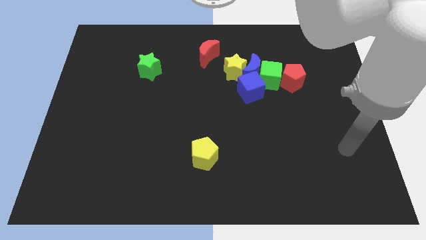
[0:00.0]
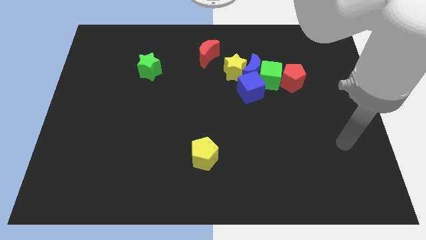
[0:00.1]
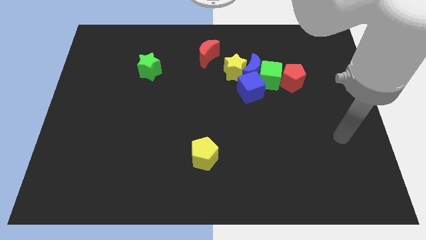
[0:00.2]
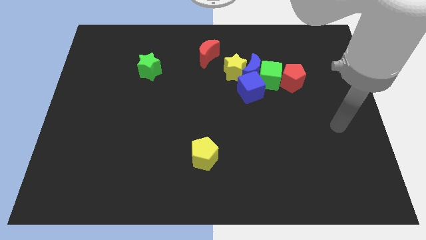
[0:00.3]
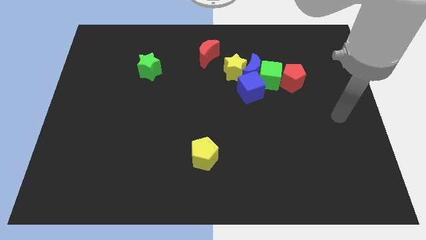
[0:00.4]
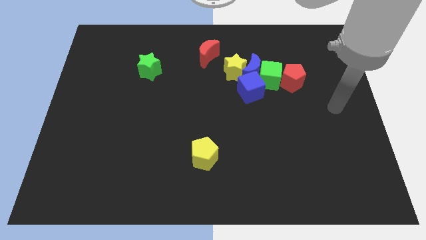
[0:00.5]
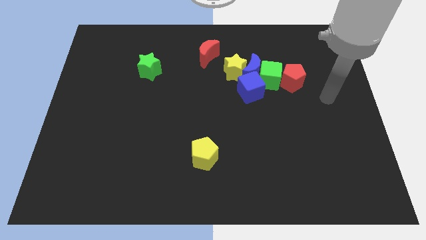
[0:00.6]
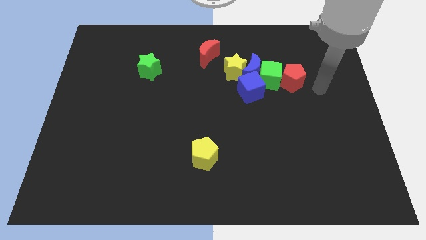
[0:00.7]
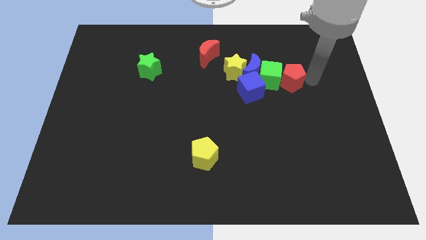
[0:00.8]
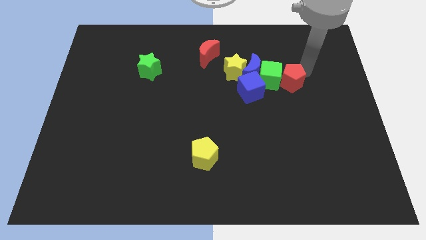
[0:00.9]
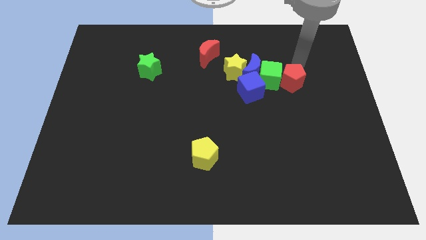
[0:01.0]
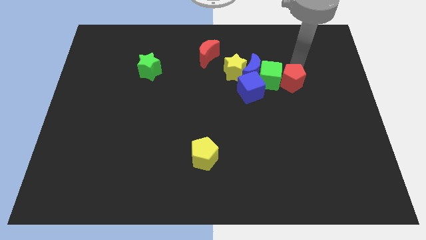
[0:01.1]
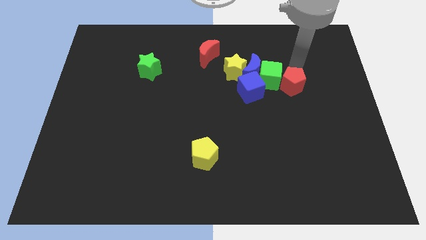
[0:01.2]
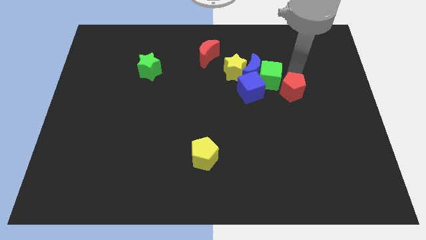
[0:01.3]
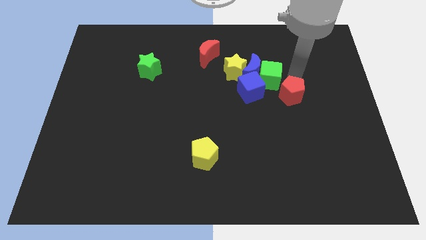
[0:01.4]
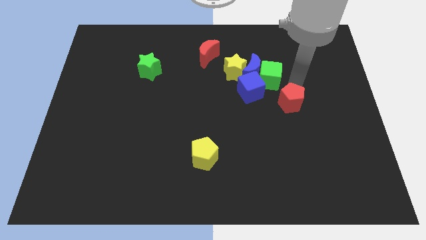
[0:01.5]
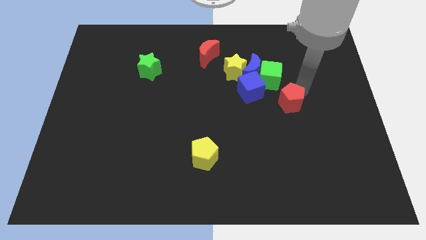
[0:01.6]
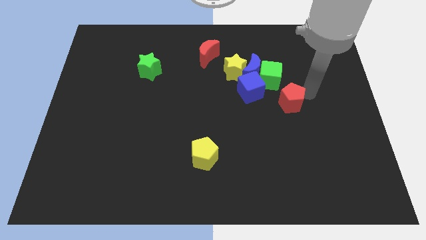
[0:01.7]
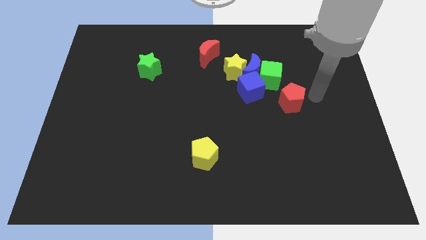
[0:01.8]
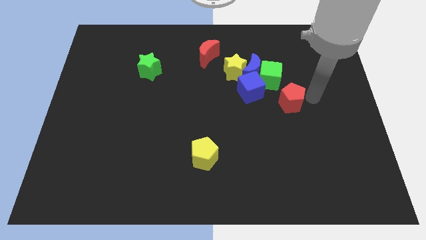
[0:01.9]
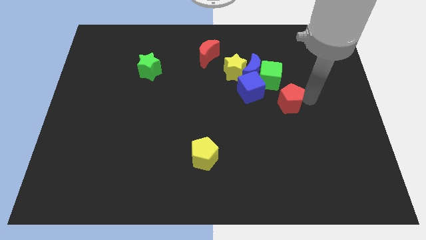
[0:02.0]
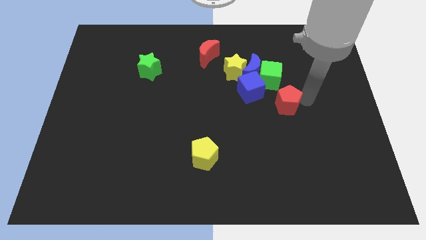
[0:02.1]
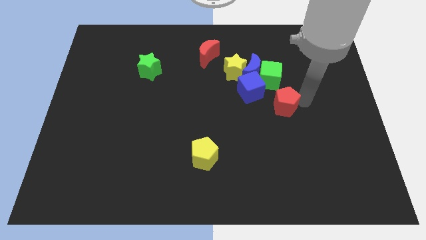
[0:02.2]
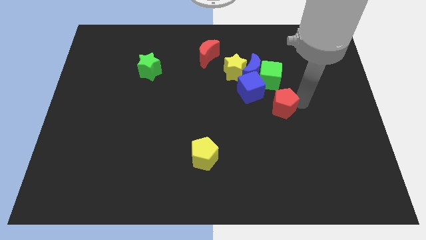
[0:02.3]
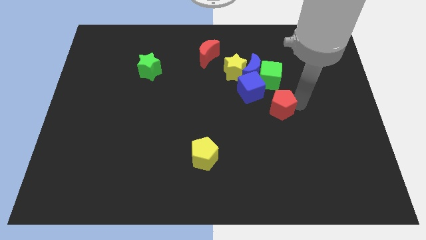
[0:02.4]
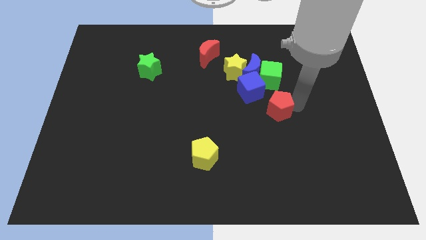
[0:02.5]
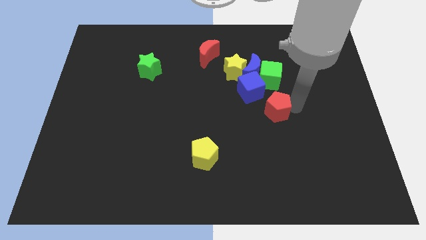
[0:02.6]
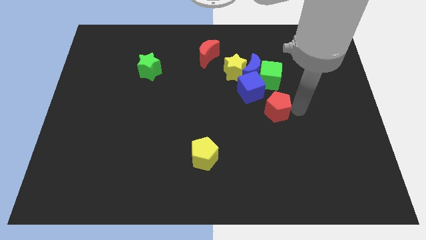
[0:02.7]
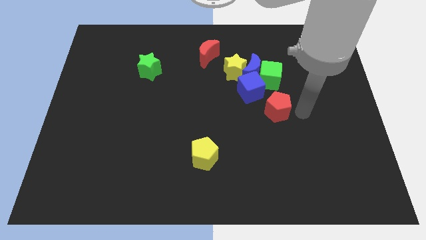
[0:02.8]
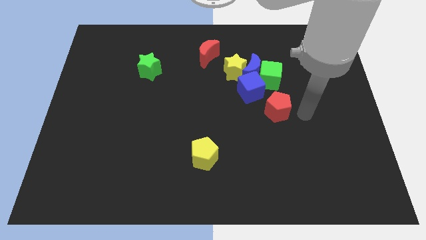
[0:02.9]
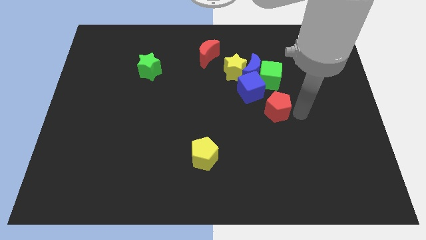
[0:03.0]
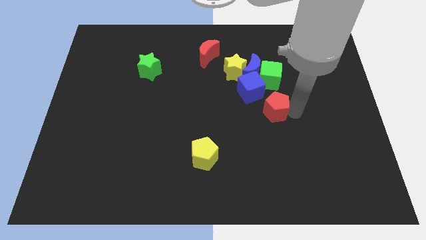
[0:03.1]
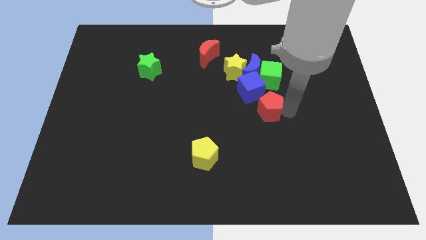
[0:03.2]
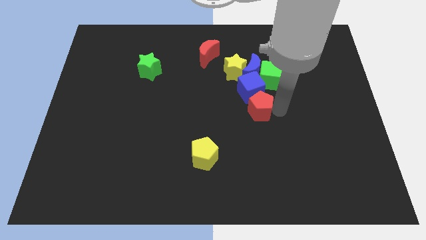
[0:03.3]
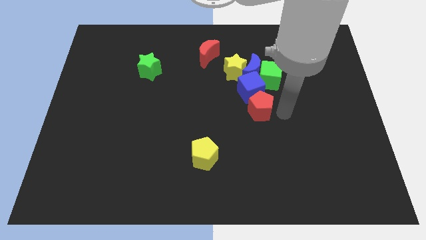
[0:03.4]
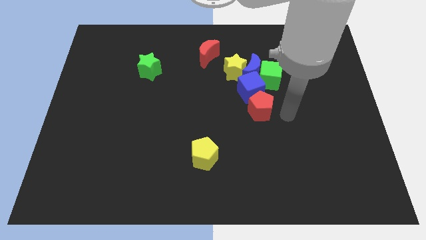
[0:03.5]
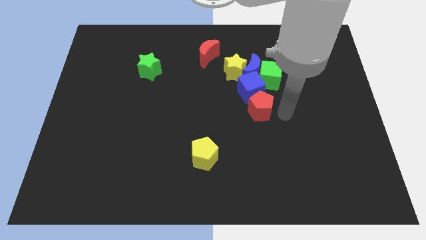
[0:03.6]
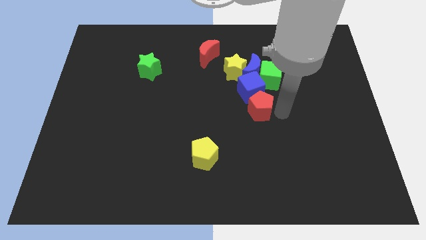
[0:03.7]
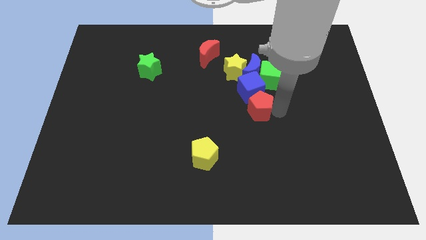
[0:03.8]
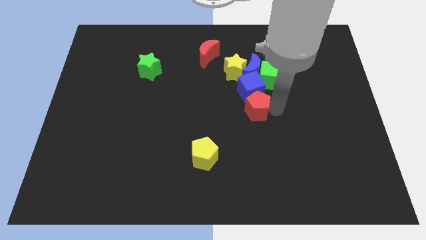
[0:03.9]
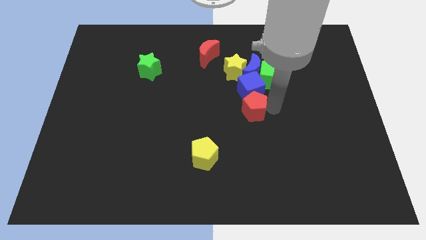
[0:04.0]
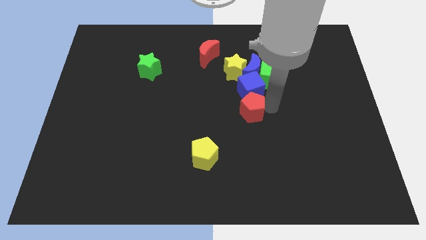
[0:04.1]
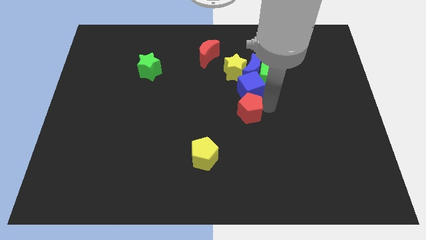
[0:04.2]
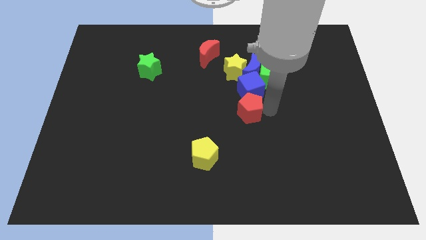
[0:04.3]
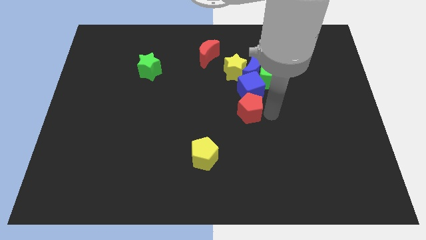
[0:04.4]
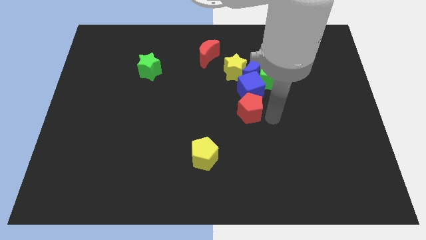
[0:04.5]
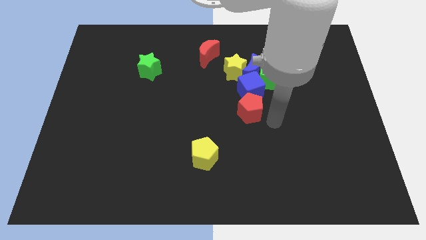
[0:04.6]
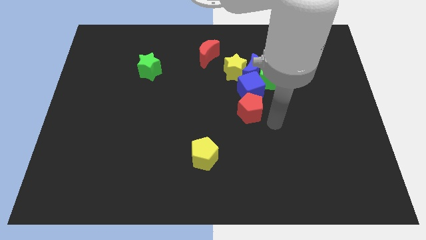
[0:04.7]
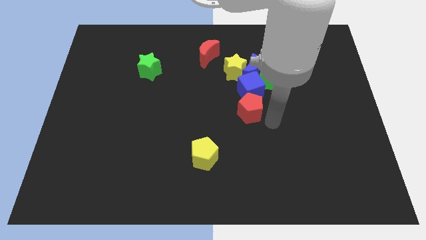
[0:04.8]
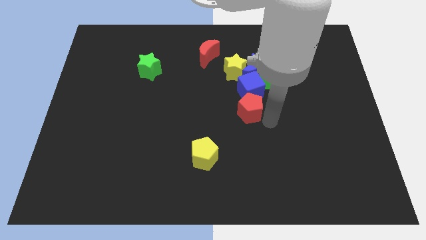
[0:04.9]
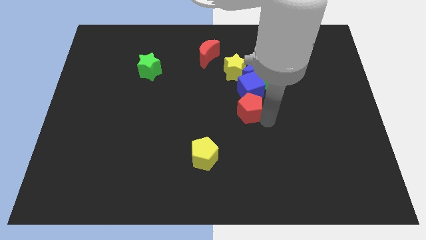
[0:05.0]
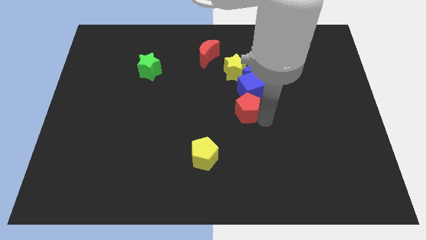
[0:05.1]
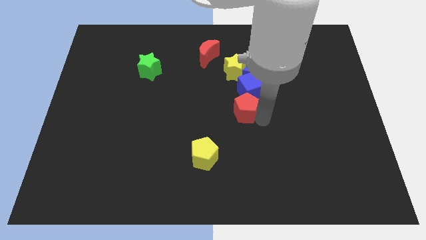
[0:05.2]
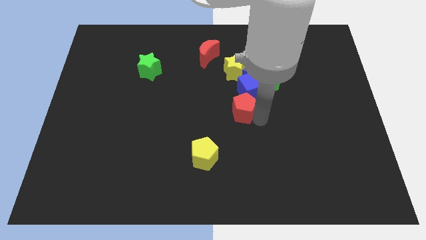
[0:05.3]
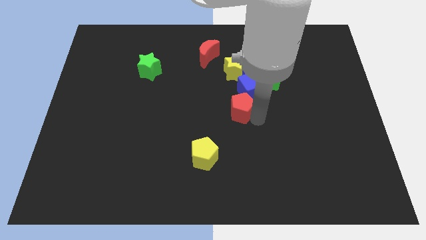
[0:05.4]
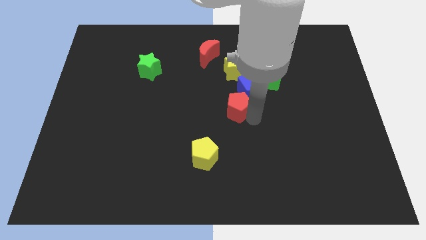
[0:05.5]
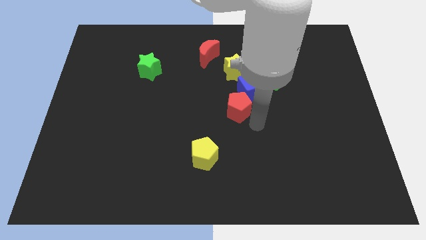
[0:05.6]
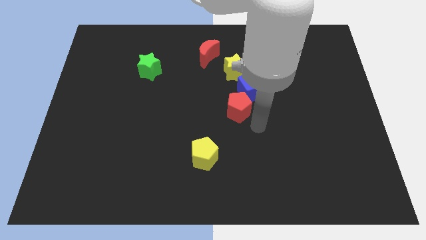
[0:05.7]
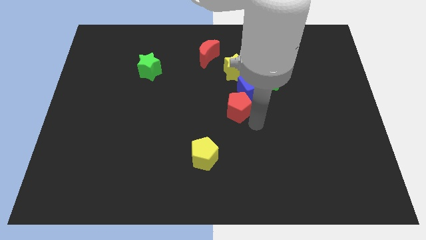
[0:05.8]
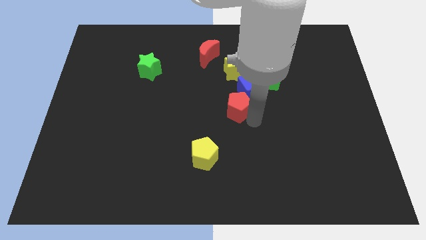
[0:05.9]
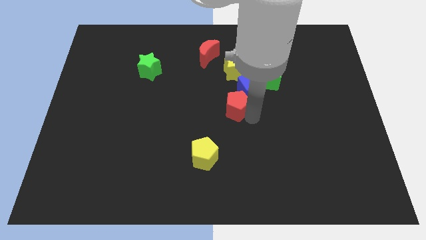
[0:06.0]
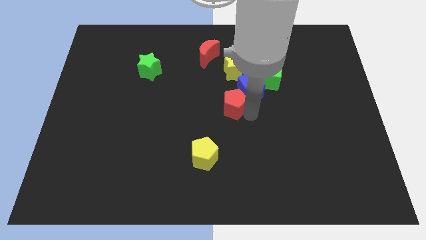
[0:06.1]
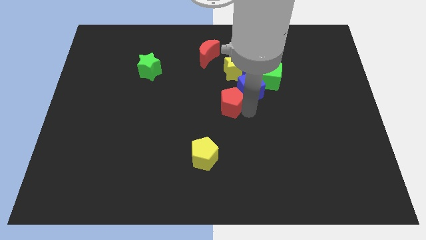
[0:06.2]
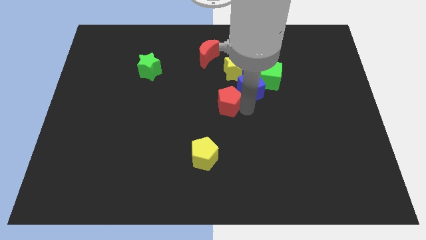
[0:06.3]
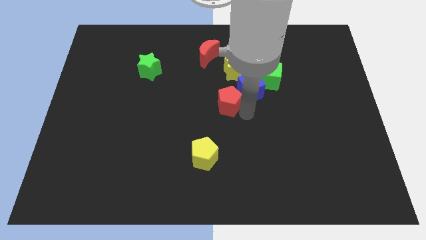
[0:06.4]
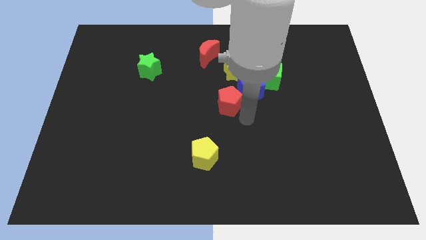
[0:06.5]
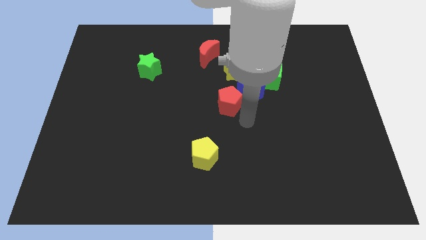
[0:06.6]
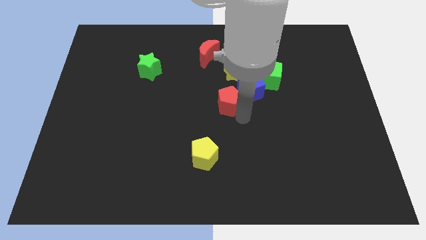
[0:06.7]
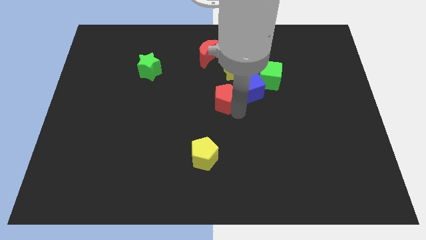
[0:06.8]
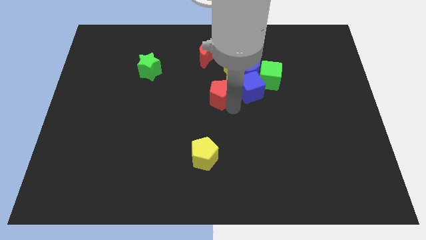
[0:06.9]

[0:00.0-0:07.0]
put the red pentagon to the bottom left of the yellow star
